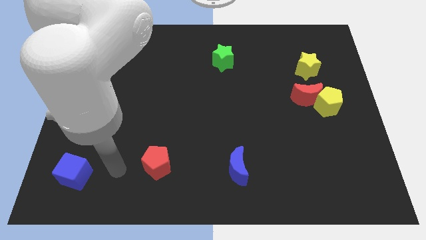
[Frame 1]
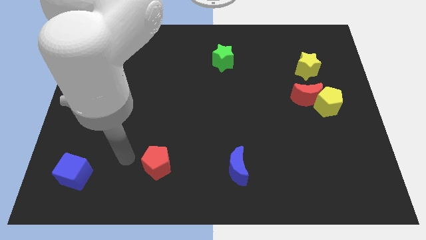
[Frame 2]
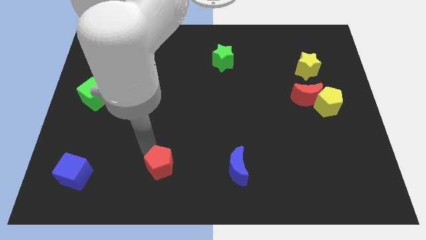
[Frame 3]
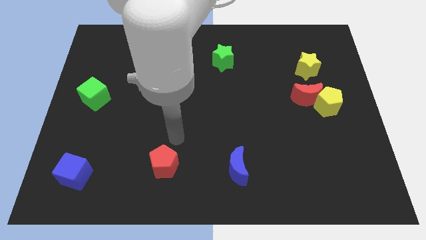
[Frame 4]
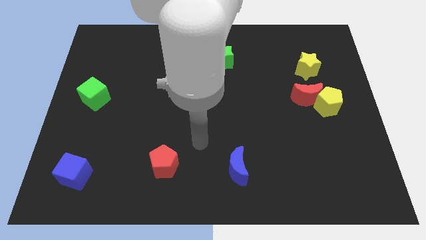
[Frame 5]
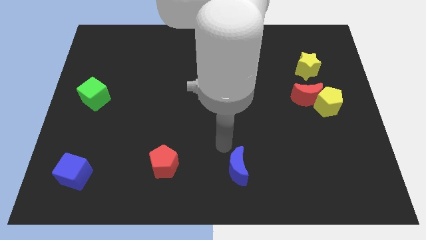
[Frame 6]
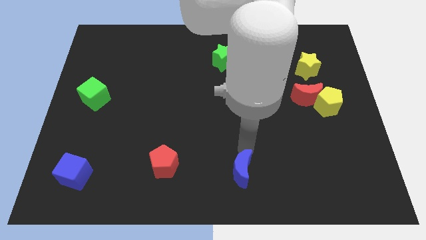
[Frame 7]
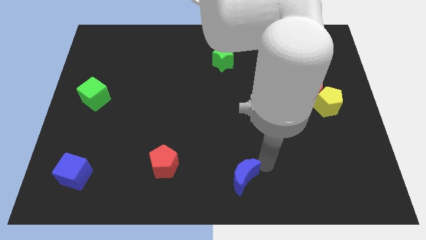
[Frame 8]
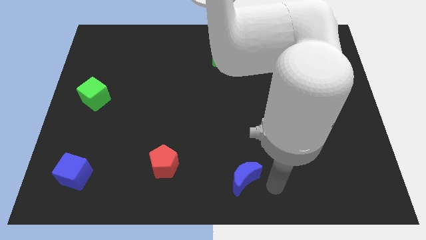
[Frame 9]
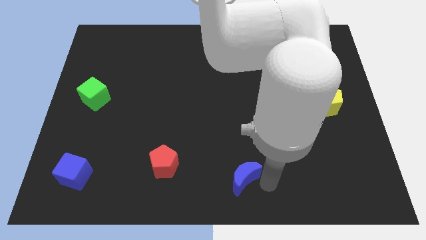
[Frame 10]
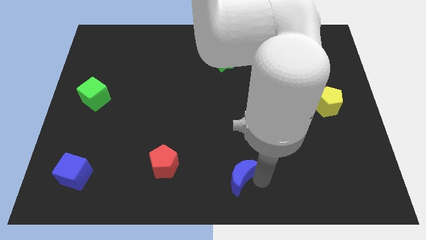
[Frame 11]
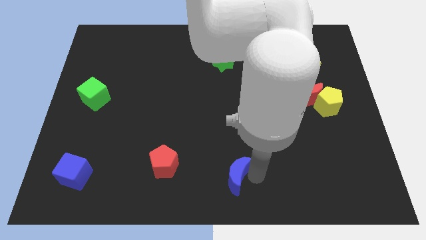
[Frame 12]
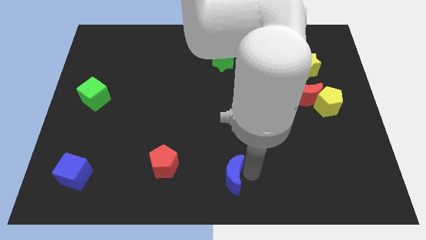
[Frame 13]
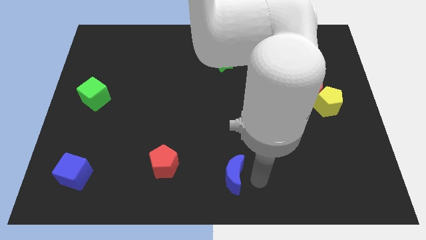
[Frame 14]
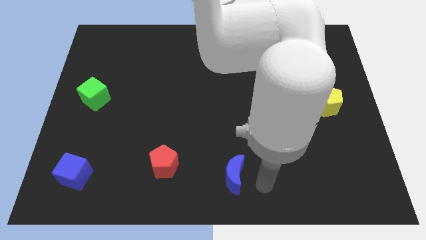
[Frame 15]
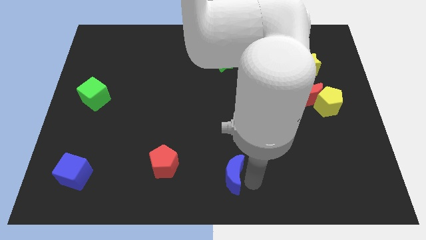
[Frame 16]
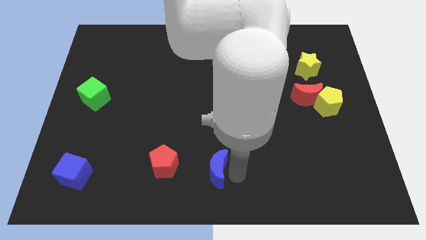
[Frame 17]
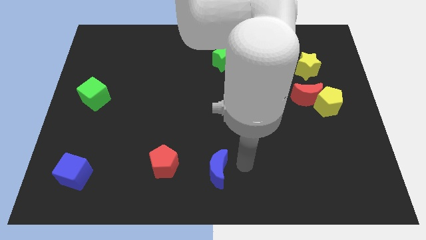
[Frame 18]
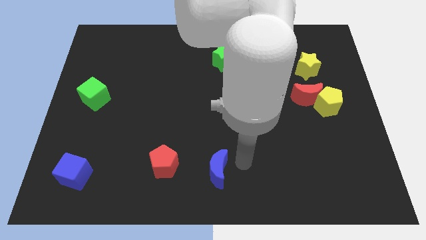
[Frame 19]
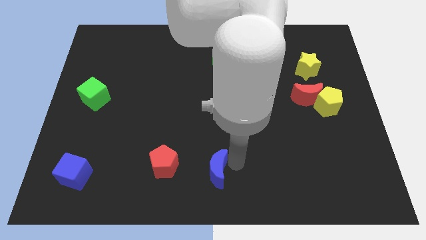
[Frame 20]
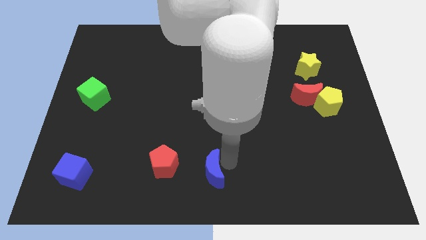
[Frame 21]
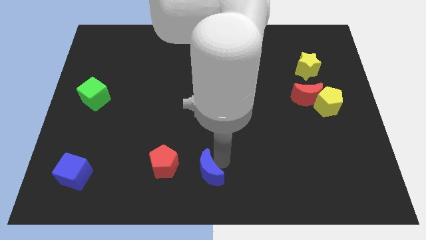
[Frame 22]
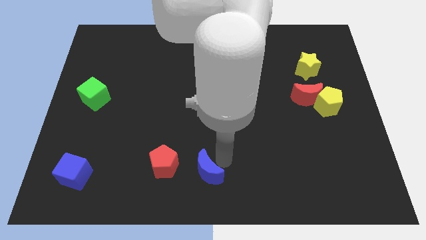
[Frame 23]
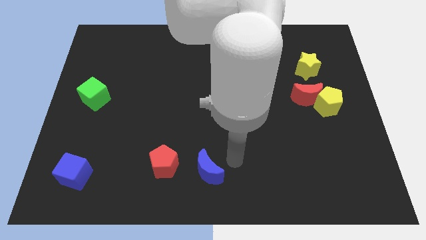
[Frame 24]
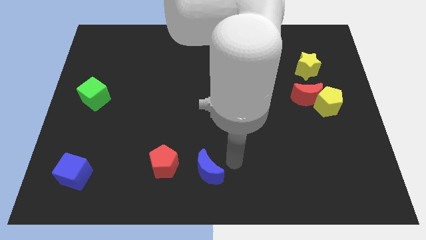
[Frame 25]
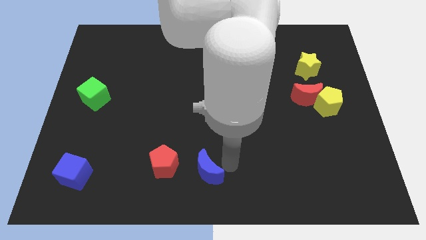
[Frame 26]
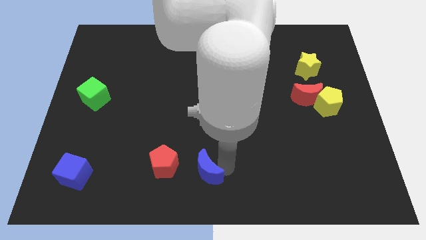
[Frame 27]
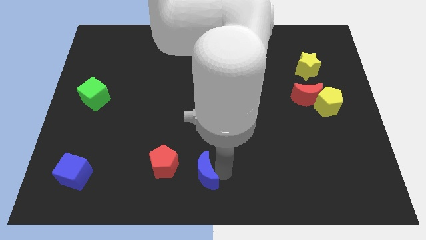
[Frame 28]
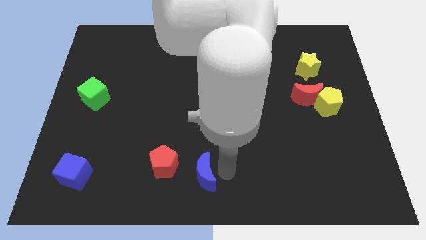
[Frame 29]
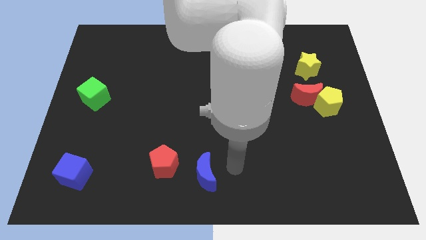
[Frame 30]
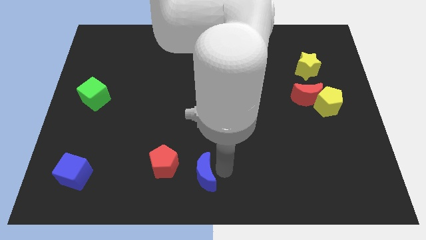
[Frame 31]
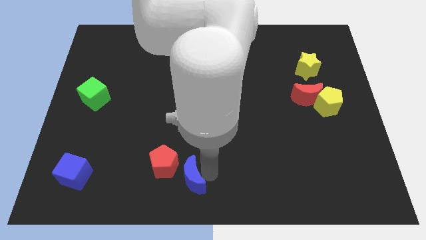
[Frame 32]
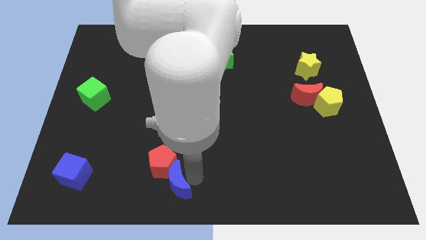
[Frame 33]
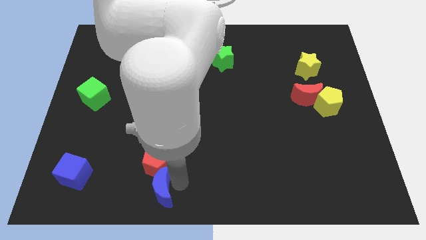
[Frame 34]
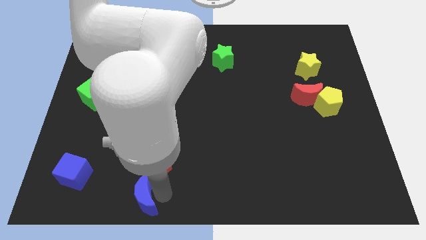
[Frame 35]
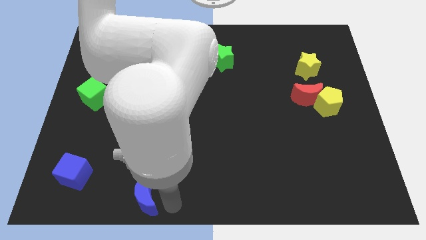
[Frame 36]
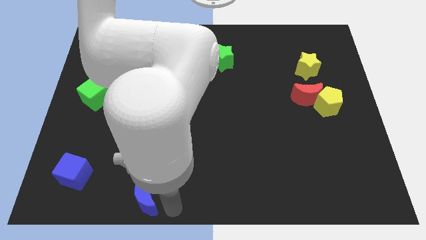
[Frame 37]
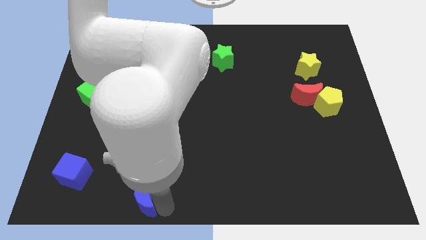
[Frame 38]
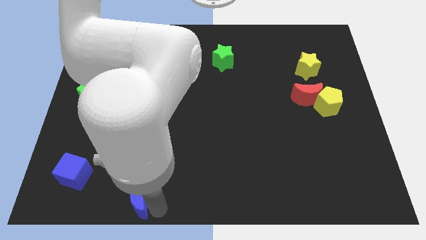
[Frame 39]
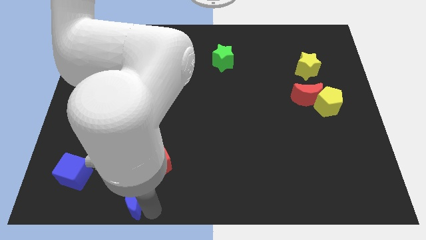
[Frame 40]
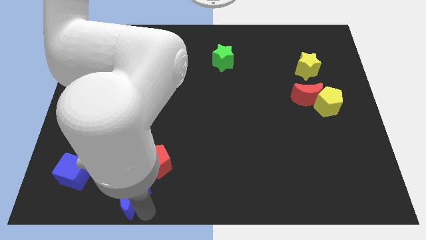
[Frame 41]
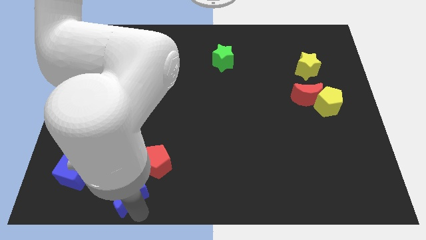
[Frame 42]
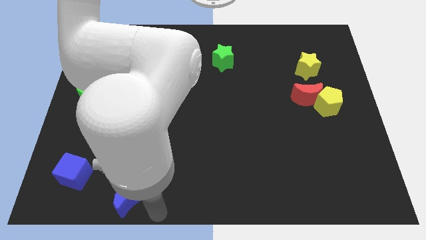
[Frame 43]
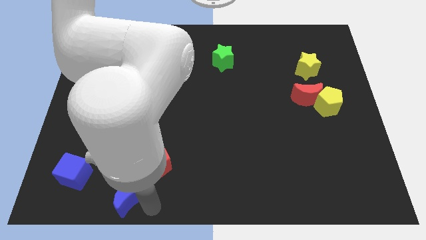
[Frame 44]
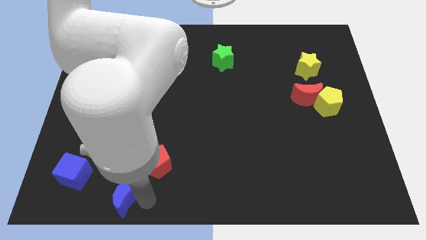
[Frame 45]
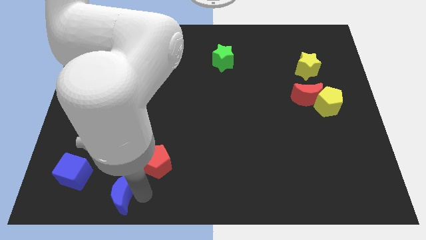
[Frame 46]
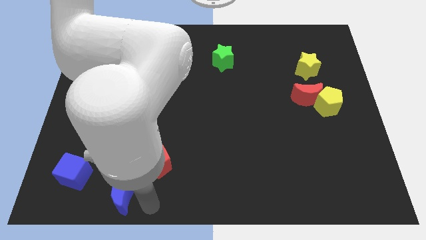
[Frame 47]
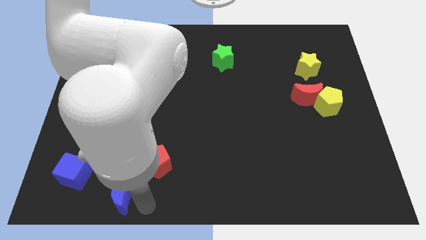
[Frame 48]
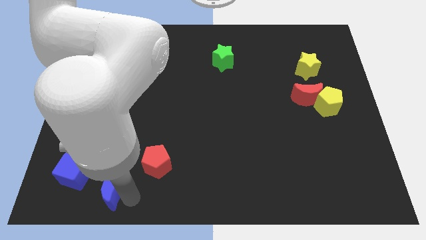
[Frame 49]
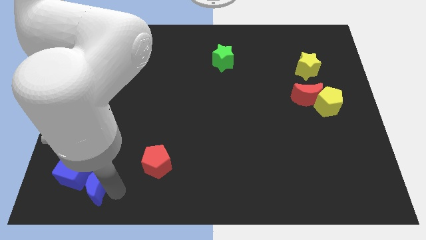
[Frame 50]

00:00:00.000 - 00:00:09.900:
slide the blue moon close to the blue cube

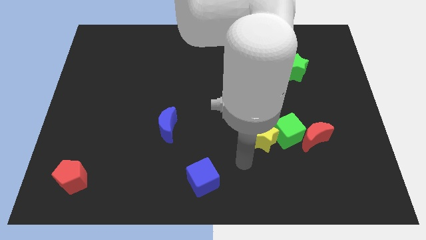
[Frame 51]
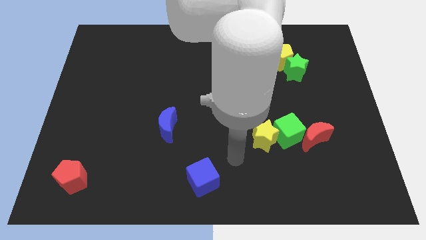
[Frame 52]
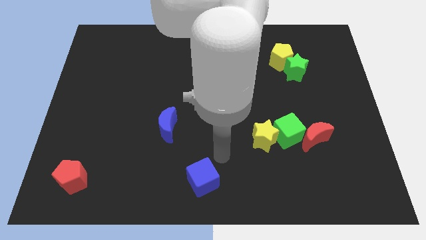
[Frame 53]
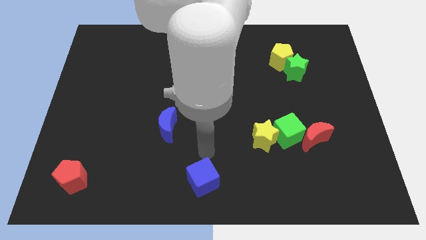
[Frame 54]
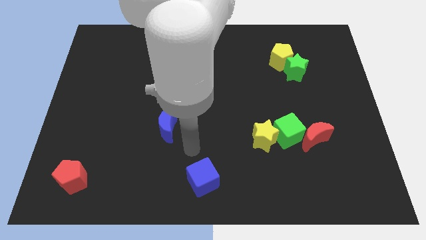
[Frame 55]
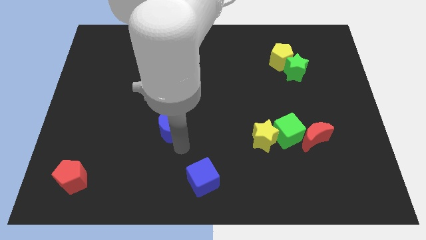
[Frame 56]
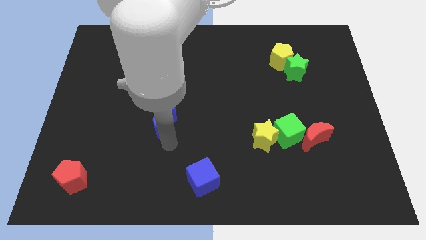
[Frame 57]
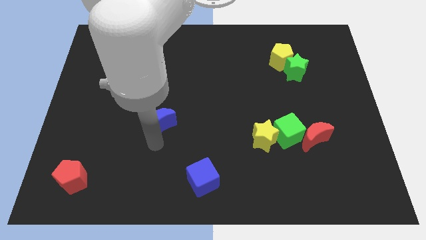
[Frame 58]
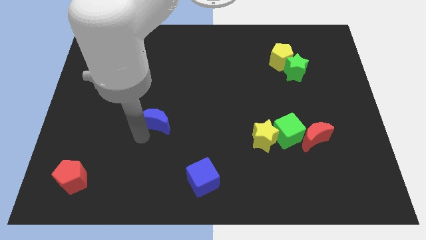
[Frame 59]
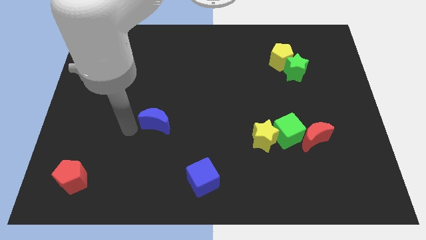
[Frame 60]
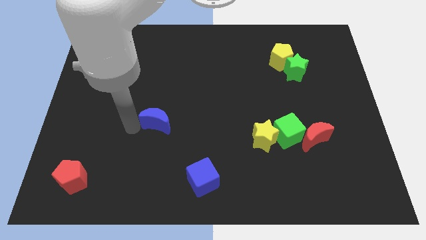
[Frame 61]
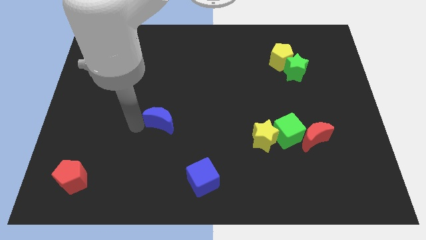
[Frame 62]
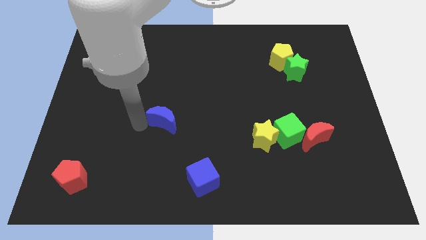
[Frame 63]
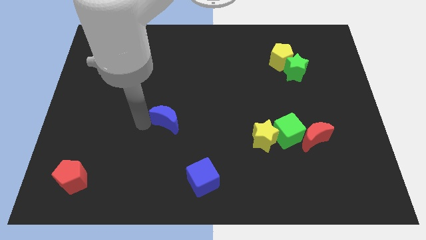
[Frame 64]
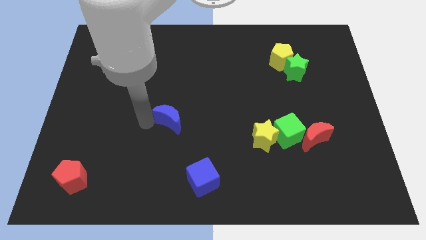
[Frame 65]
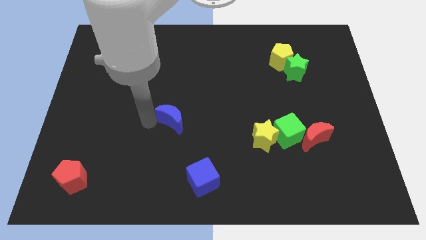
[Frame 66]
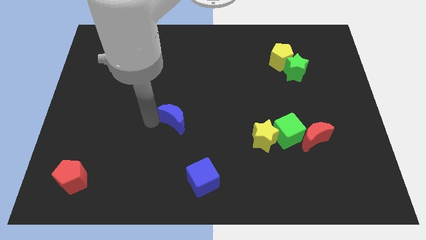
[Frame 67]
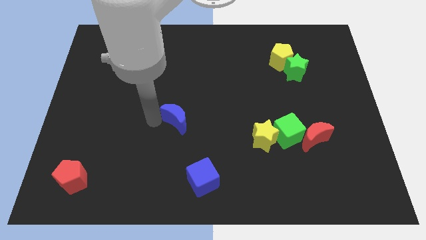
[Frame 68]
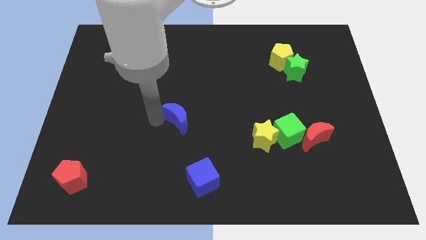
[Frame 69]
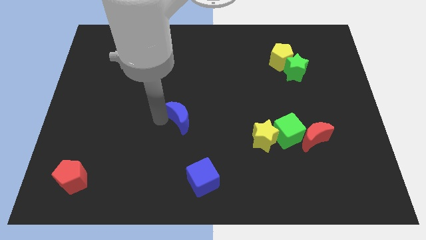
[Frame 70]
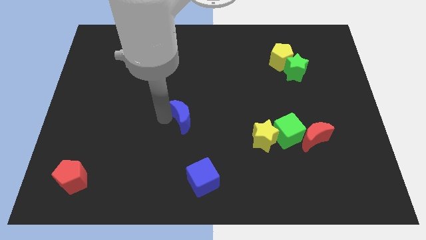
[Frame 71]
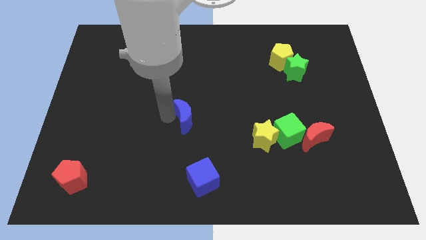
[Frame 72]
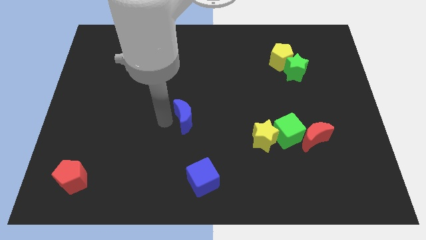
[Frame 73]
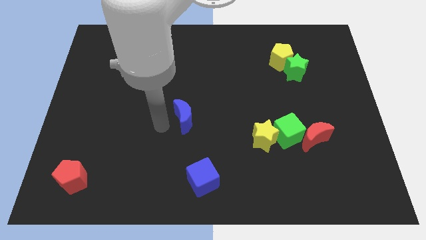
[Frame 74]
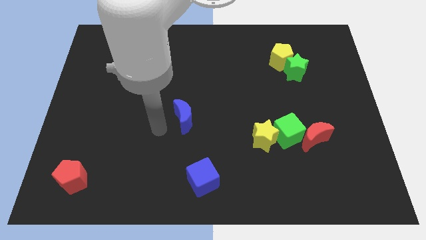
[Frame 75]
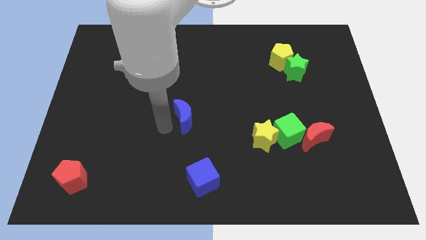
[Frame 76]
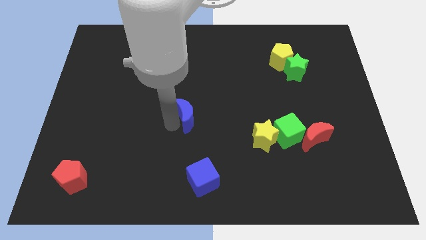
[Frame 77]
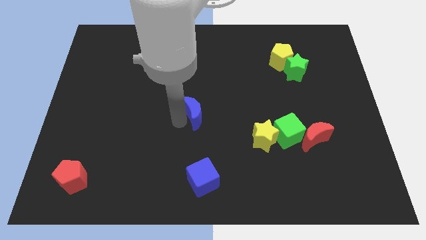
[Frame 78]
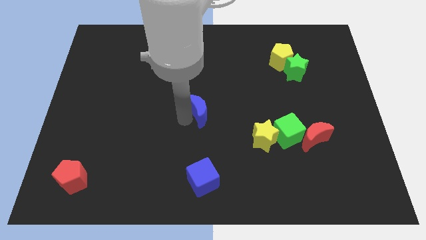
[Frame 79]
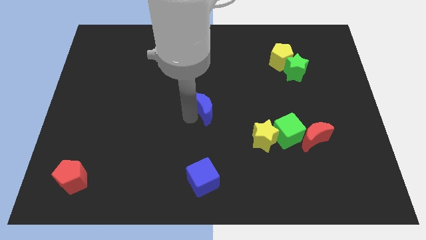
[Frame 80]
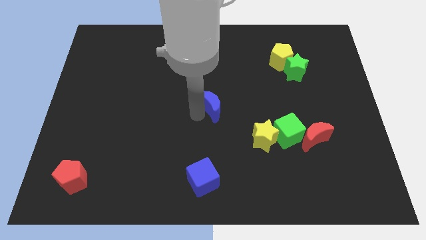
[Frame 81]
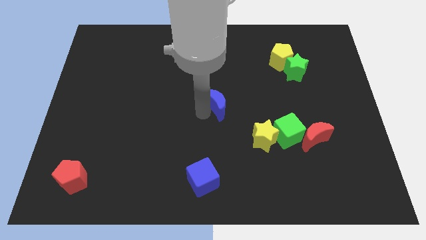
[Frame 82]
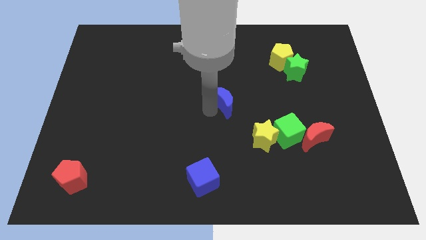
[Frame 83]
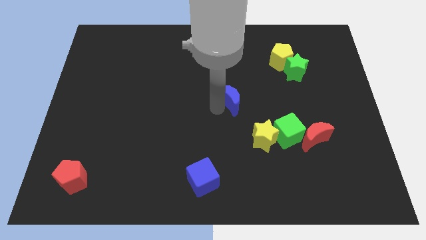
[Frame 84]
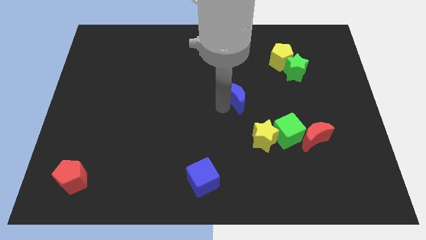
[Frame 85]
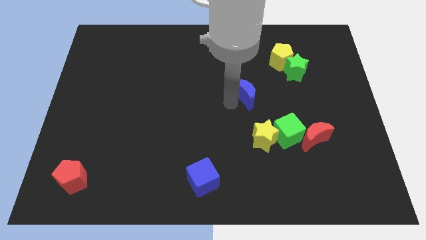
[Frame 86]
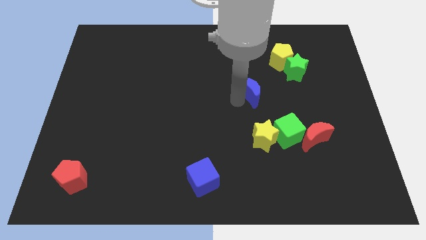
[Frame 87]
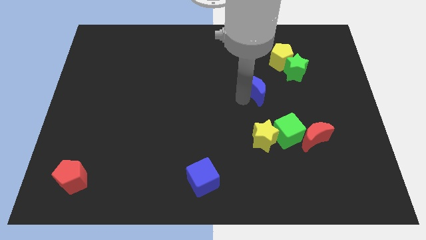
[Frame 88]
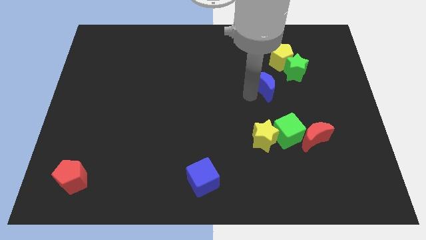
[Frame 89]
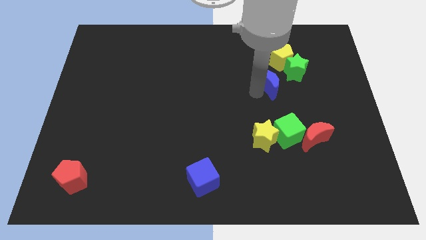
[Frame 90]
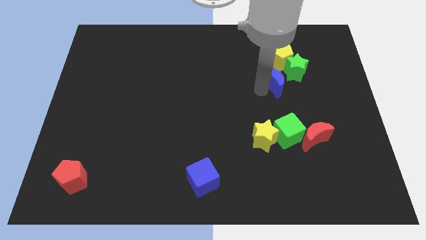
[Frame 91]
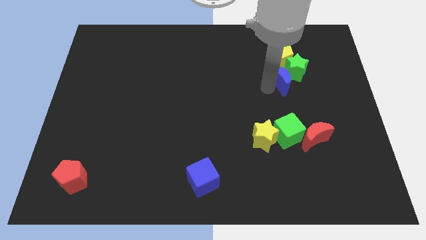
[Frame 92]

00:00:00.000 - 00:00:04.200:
move the blue moon close to the green star
